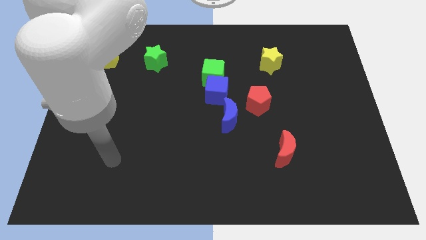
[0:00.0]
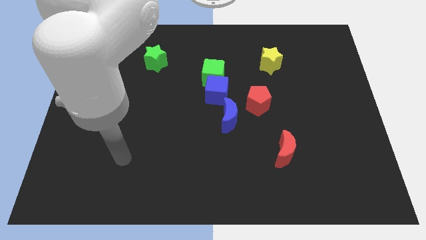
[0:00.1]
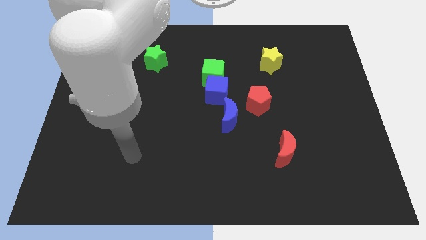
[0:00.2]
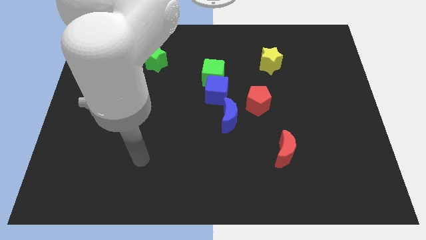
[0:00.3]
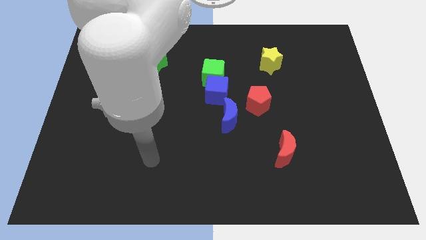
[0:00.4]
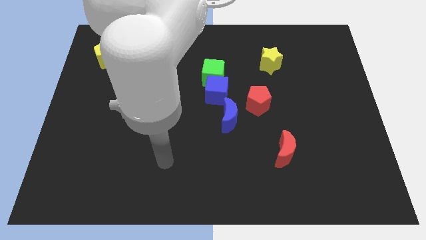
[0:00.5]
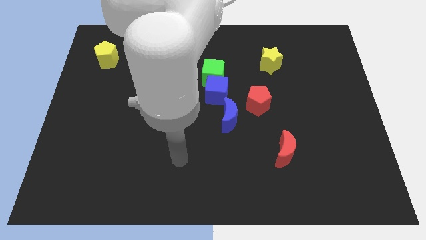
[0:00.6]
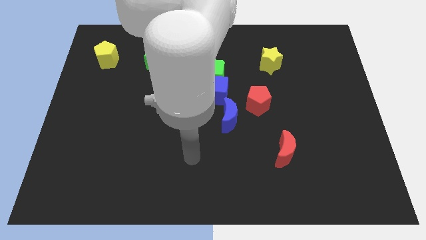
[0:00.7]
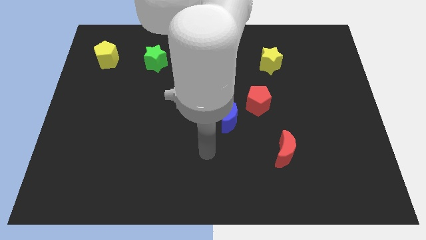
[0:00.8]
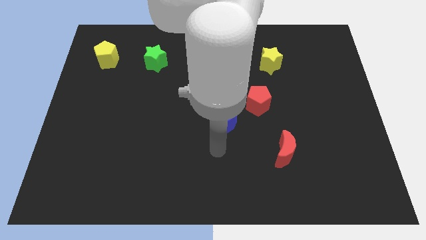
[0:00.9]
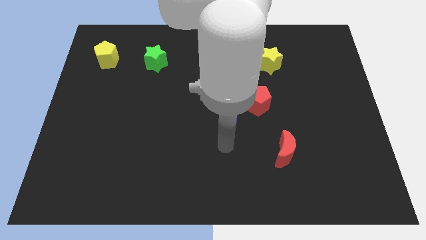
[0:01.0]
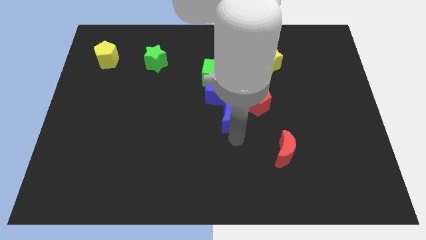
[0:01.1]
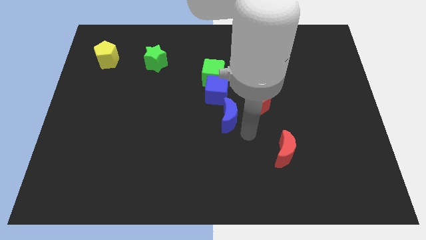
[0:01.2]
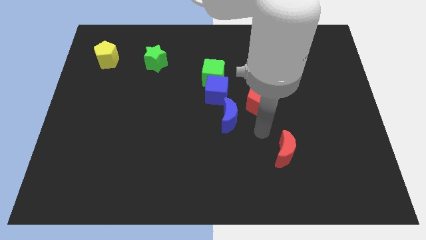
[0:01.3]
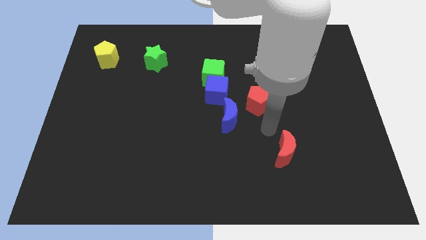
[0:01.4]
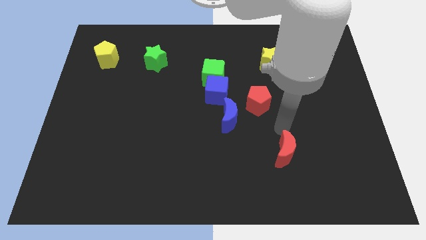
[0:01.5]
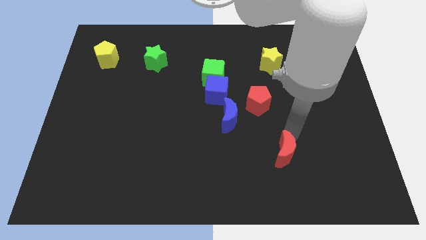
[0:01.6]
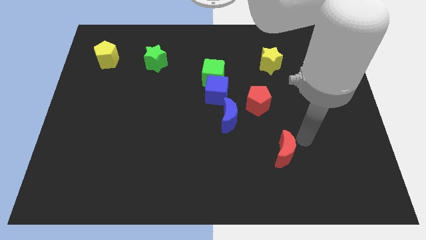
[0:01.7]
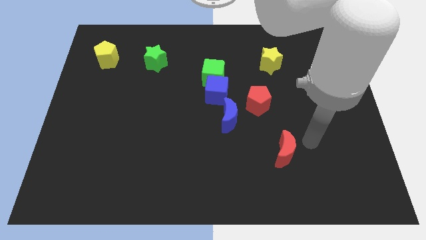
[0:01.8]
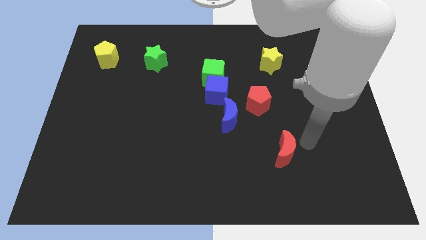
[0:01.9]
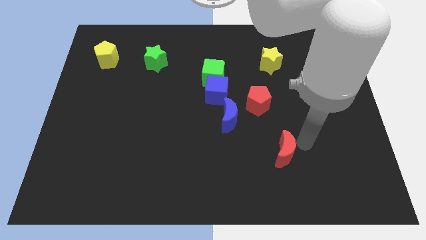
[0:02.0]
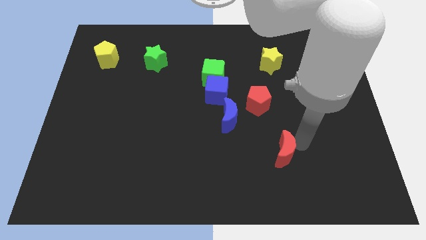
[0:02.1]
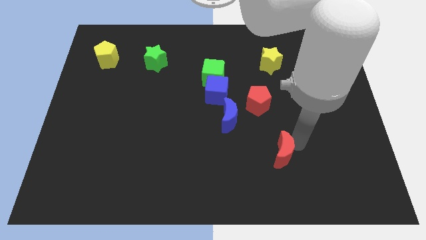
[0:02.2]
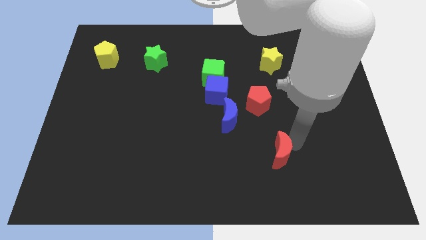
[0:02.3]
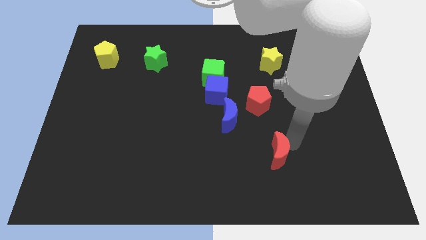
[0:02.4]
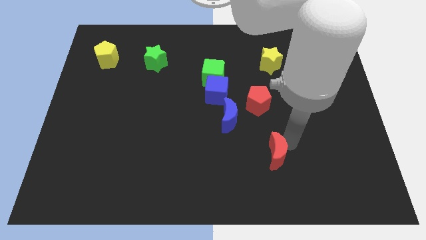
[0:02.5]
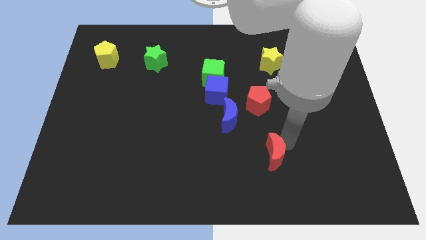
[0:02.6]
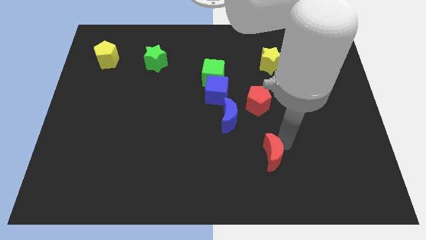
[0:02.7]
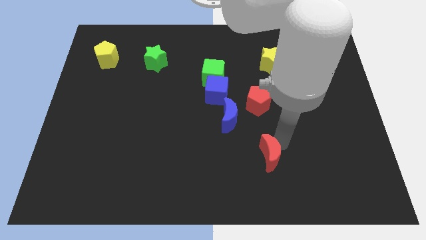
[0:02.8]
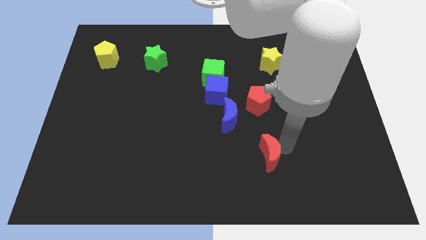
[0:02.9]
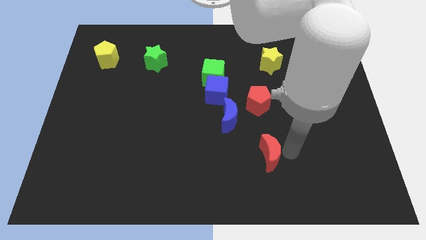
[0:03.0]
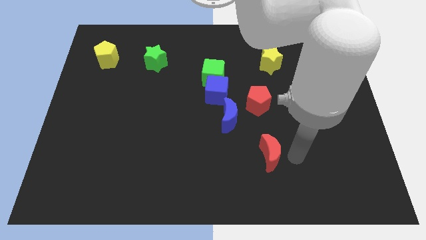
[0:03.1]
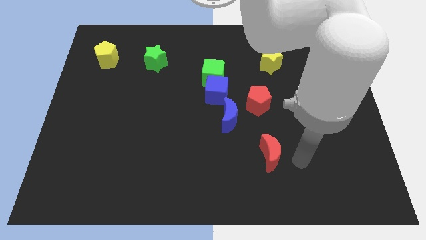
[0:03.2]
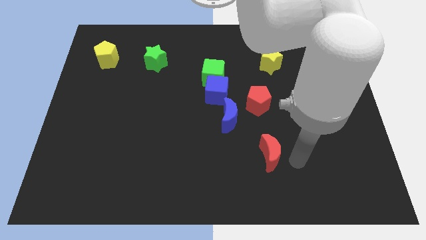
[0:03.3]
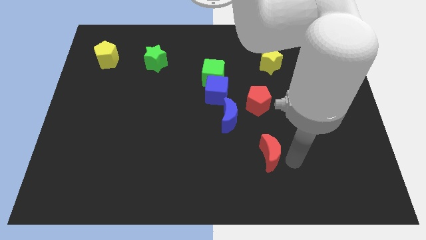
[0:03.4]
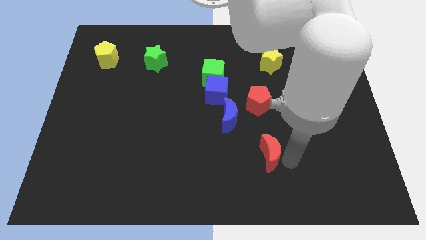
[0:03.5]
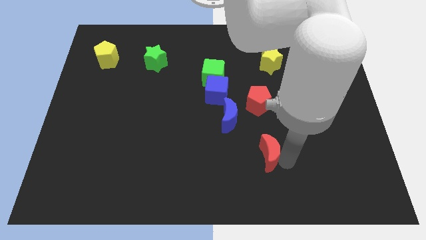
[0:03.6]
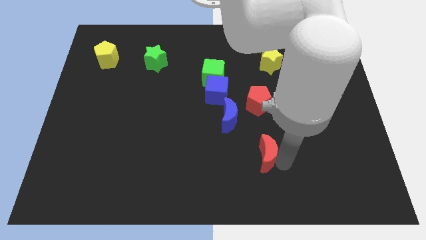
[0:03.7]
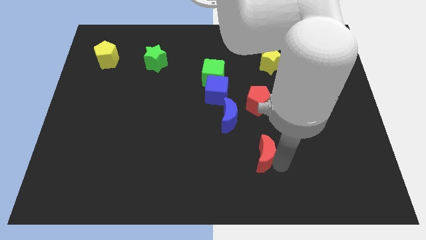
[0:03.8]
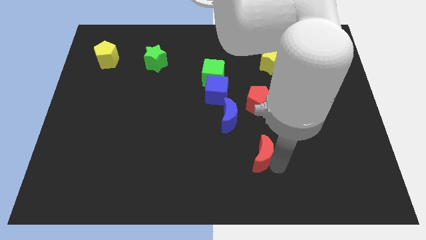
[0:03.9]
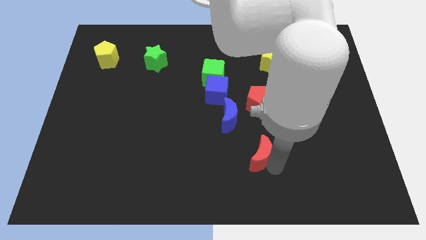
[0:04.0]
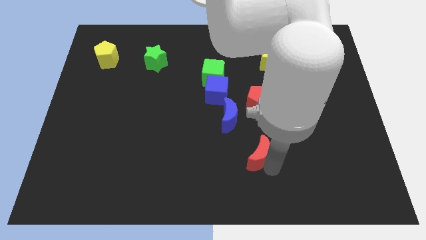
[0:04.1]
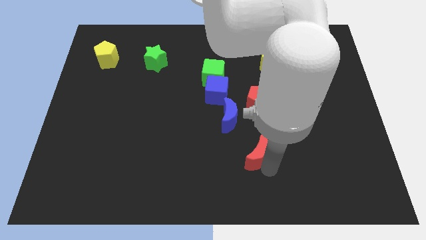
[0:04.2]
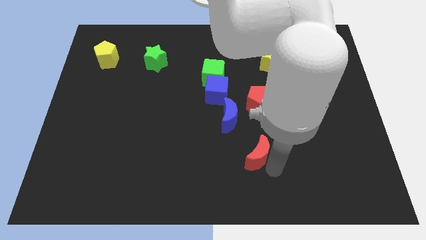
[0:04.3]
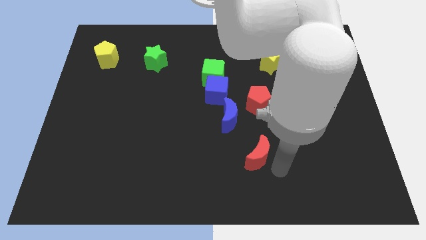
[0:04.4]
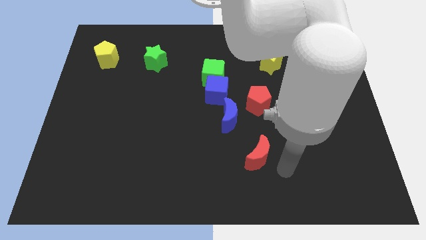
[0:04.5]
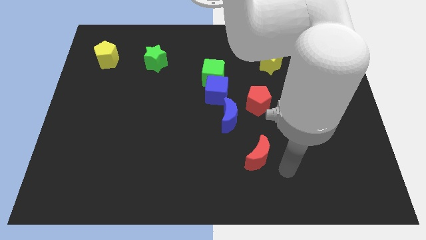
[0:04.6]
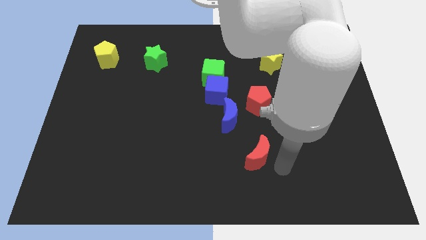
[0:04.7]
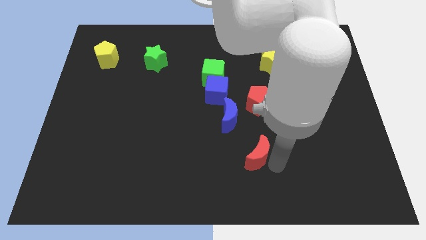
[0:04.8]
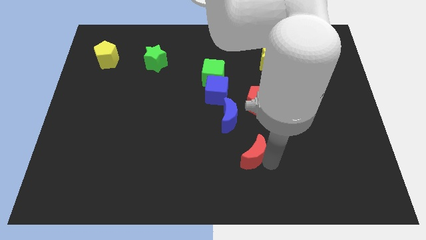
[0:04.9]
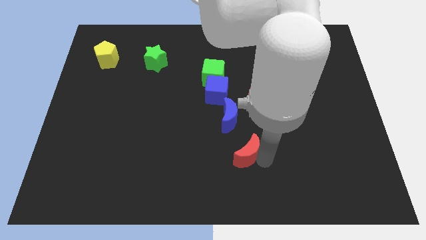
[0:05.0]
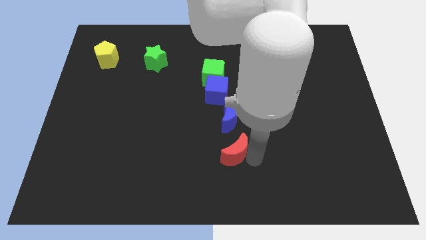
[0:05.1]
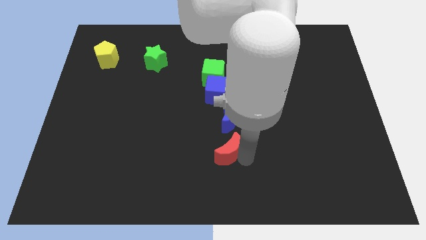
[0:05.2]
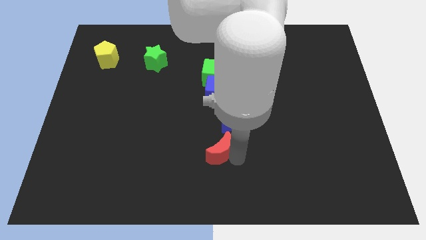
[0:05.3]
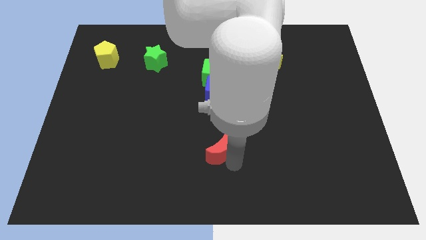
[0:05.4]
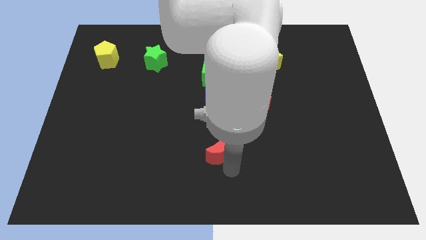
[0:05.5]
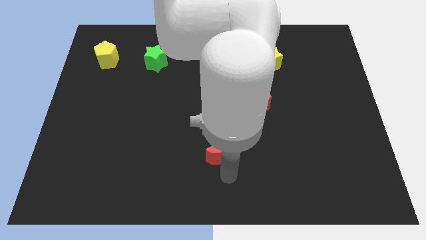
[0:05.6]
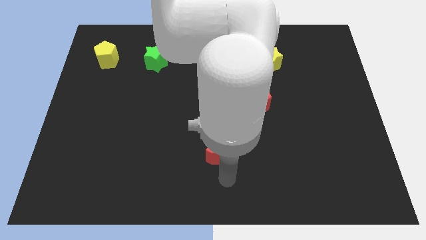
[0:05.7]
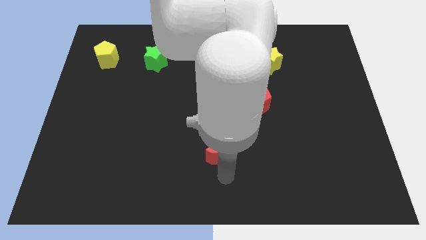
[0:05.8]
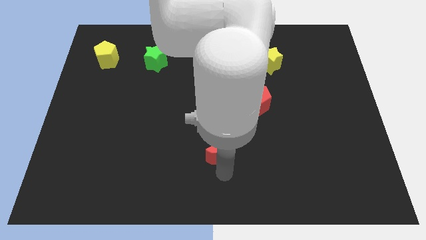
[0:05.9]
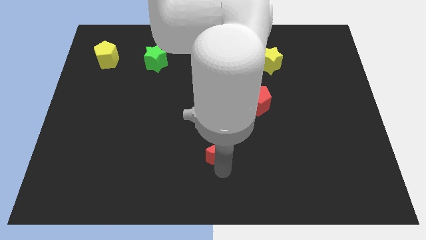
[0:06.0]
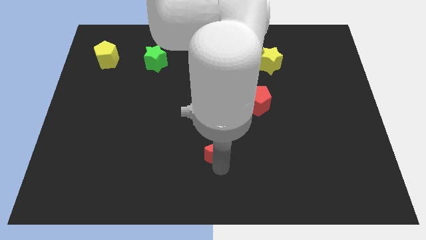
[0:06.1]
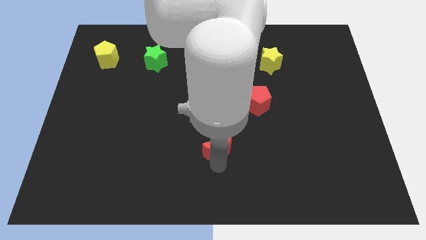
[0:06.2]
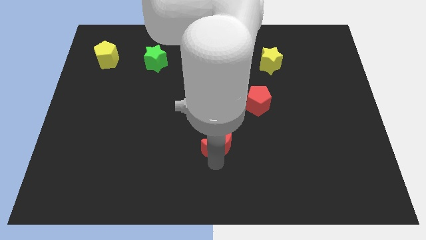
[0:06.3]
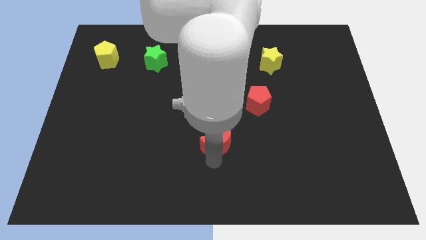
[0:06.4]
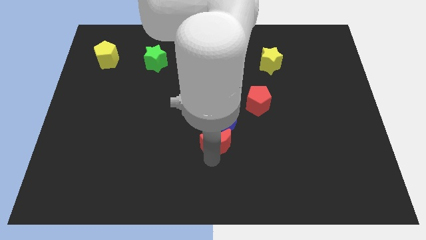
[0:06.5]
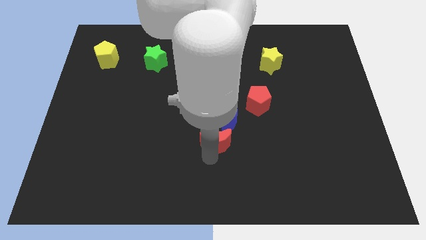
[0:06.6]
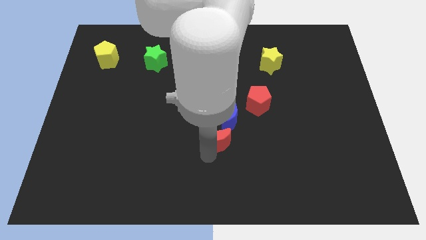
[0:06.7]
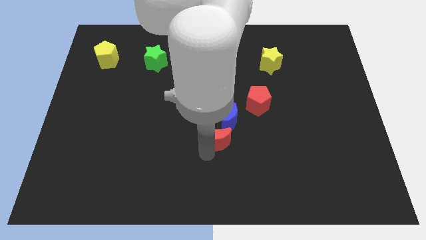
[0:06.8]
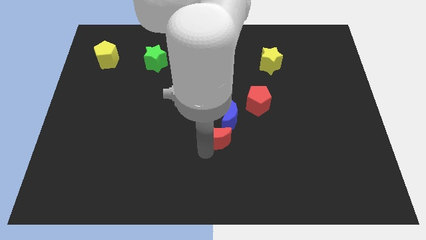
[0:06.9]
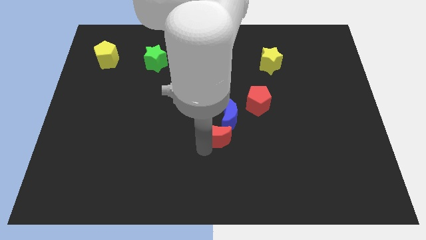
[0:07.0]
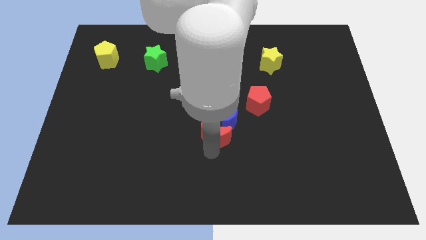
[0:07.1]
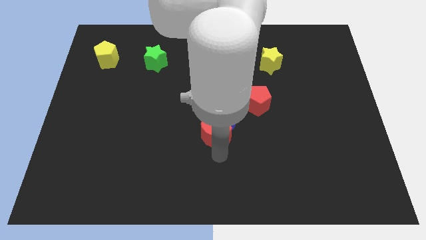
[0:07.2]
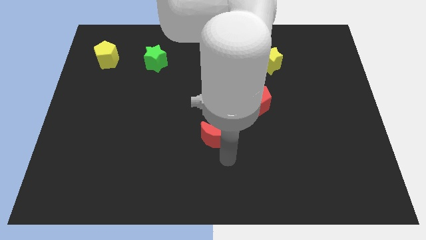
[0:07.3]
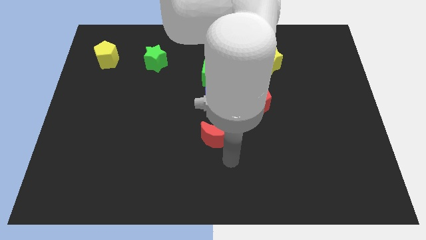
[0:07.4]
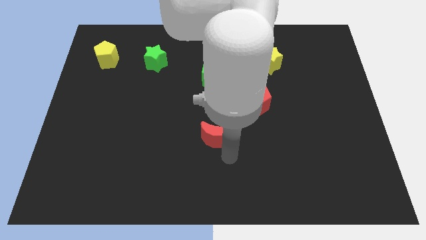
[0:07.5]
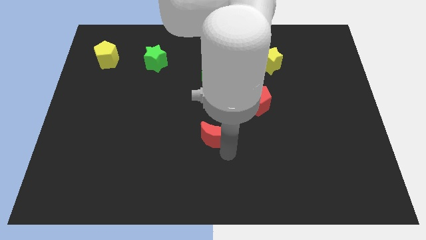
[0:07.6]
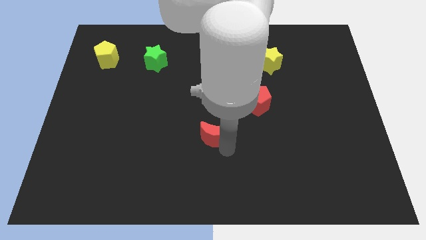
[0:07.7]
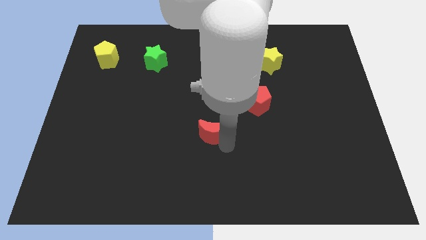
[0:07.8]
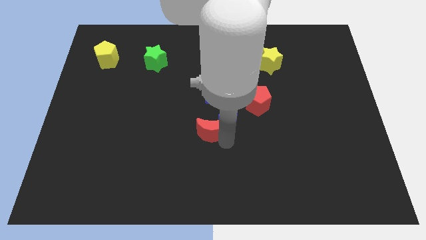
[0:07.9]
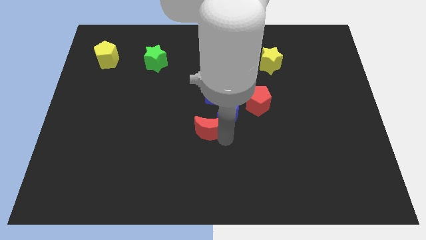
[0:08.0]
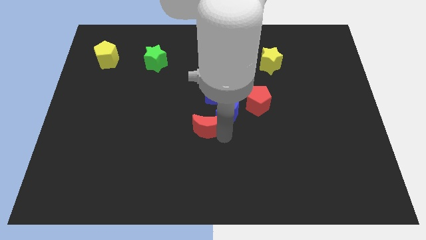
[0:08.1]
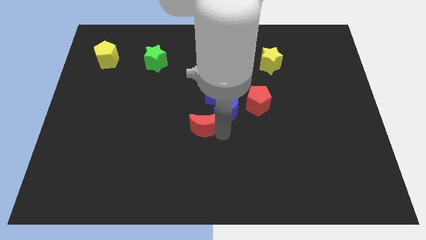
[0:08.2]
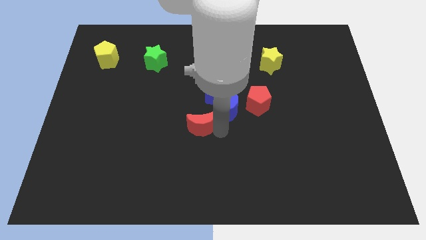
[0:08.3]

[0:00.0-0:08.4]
slide the red moon to the bottom left of the blue cube
